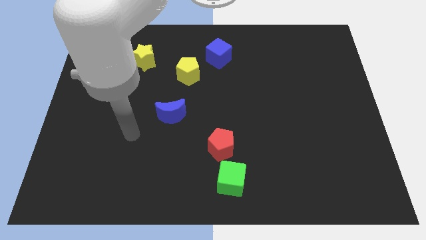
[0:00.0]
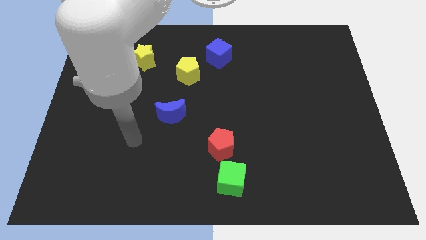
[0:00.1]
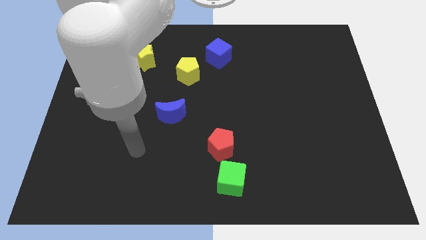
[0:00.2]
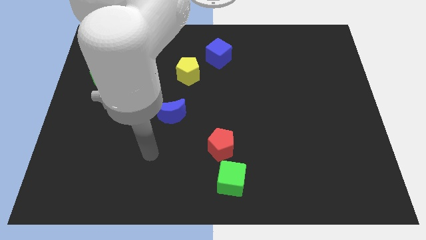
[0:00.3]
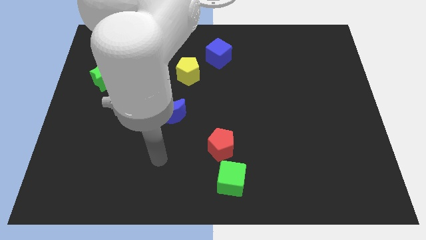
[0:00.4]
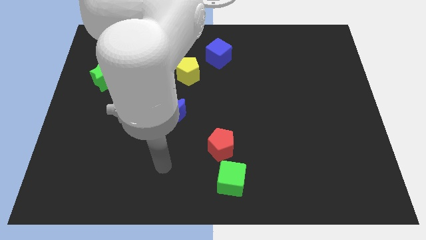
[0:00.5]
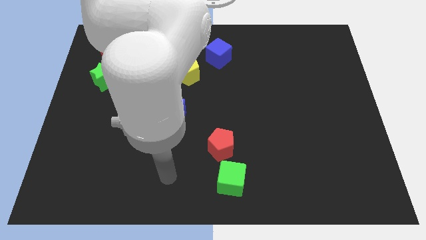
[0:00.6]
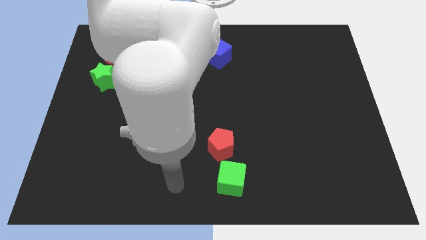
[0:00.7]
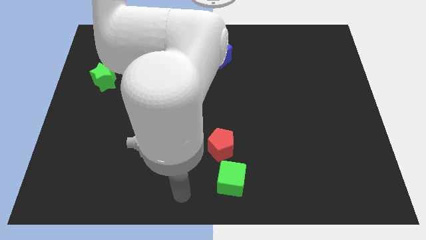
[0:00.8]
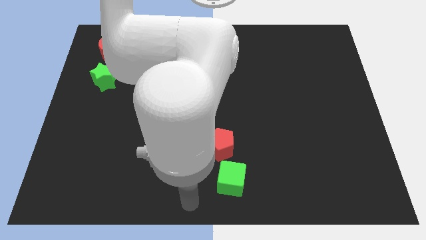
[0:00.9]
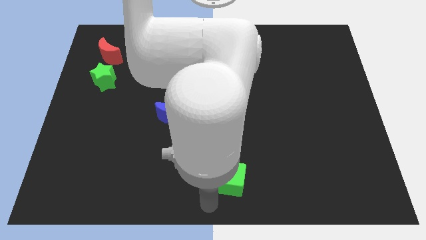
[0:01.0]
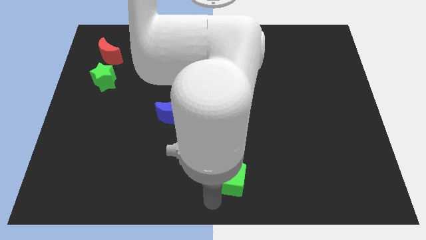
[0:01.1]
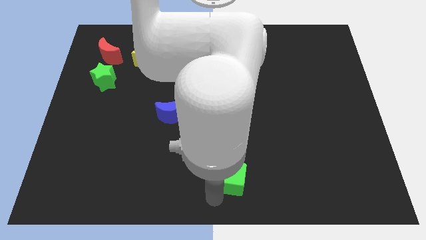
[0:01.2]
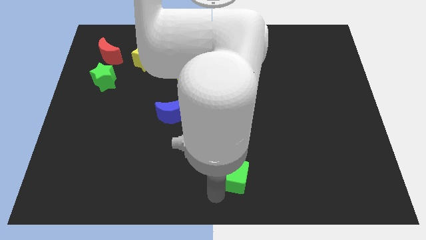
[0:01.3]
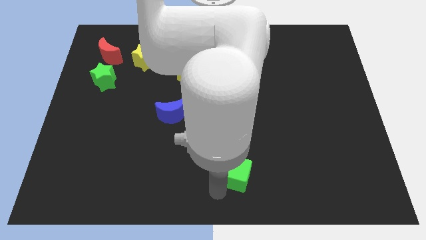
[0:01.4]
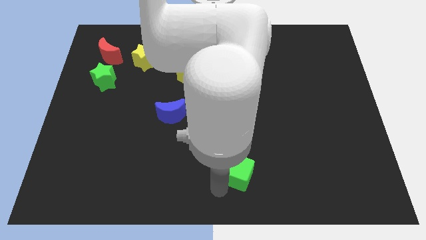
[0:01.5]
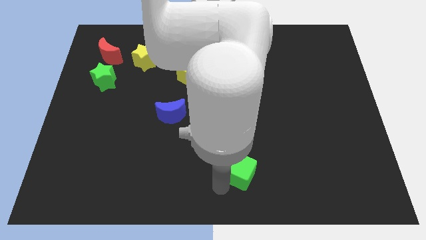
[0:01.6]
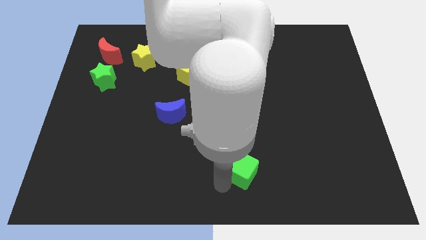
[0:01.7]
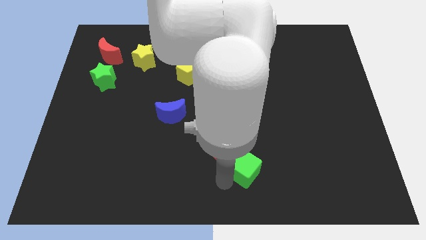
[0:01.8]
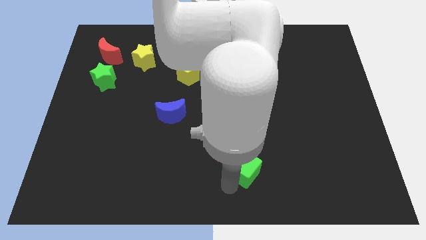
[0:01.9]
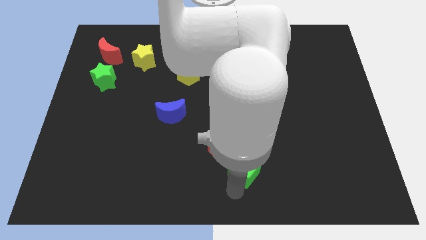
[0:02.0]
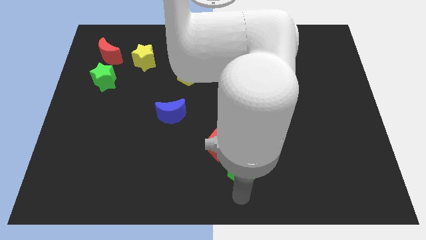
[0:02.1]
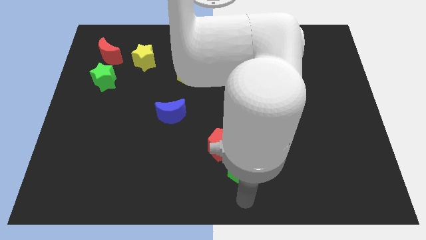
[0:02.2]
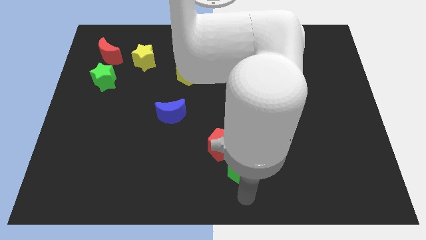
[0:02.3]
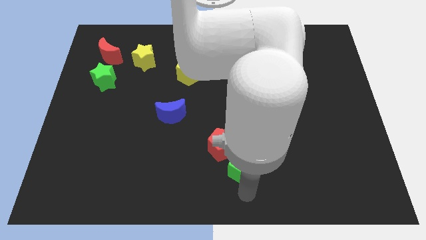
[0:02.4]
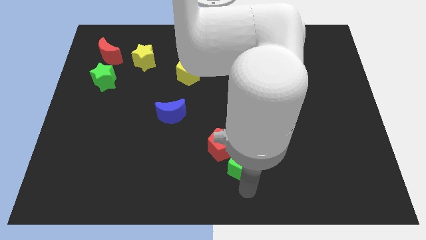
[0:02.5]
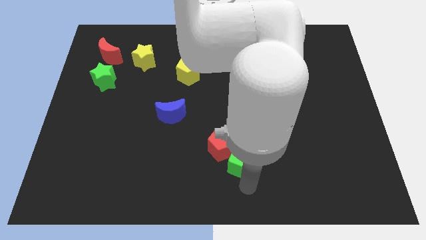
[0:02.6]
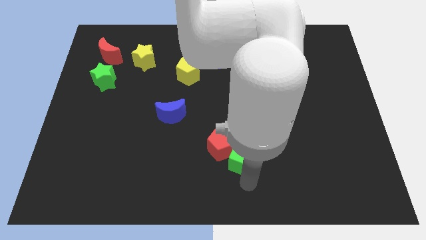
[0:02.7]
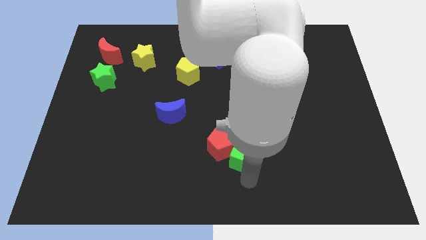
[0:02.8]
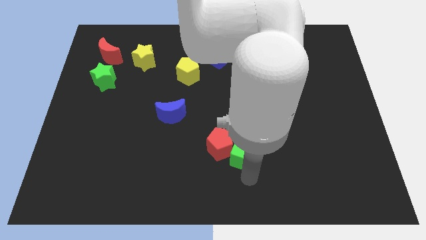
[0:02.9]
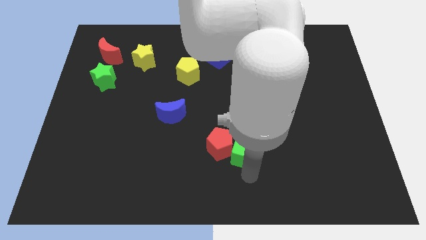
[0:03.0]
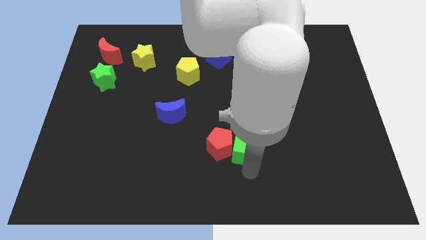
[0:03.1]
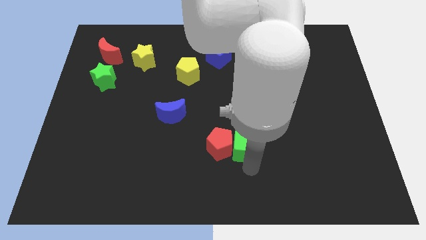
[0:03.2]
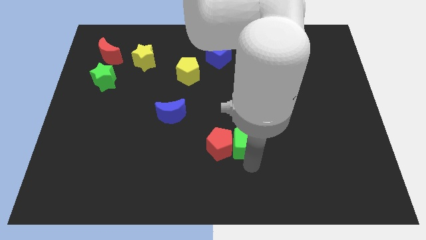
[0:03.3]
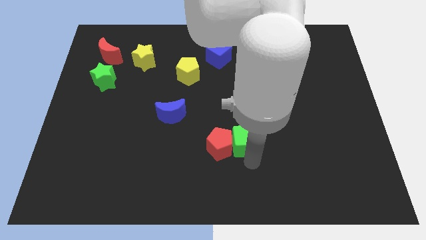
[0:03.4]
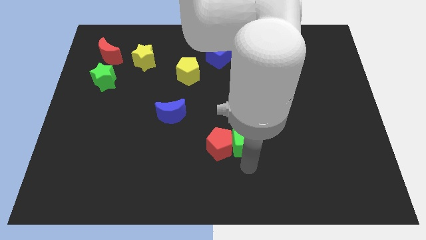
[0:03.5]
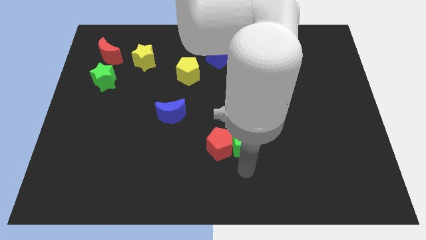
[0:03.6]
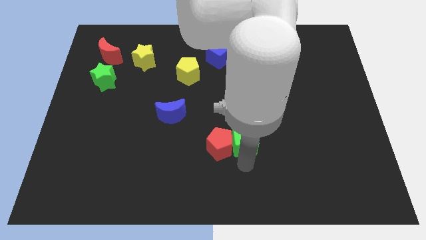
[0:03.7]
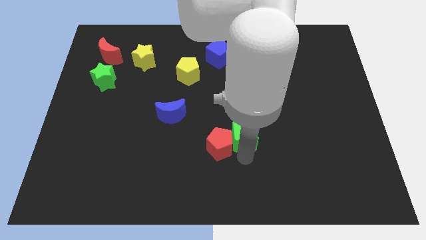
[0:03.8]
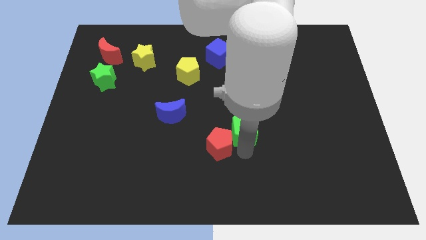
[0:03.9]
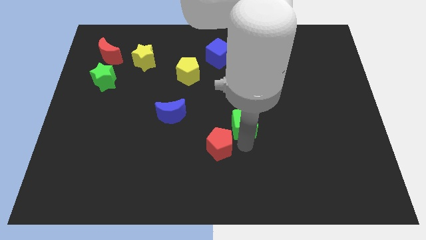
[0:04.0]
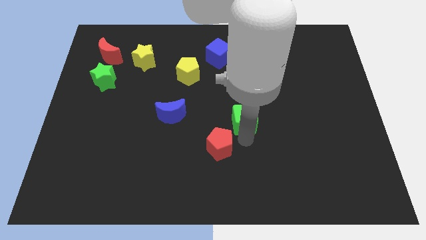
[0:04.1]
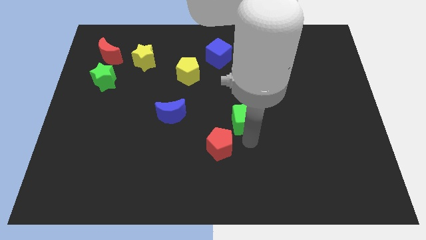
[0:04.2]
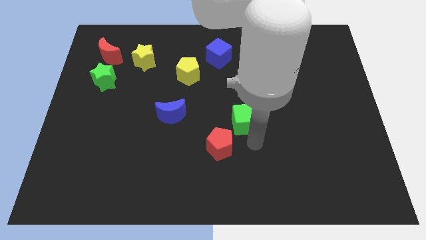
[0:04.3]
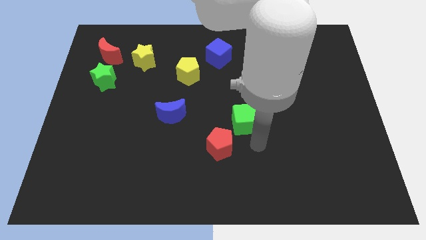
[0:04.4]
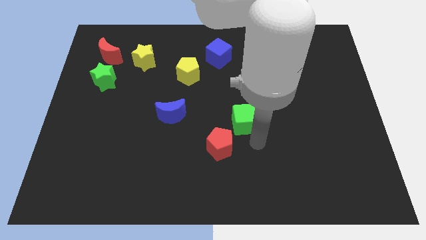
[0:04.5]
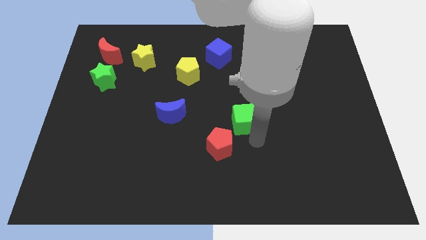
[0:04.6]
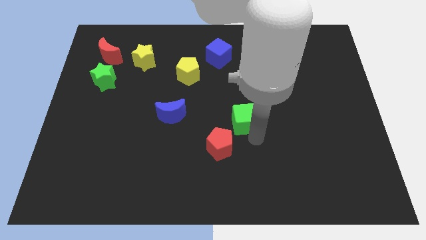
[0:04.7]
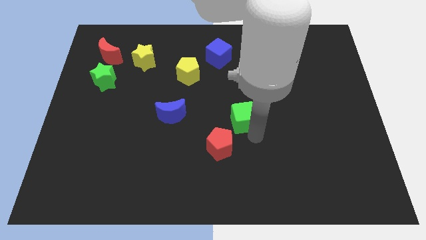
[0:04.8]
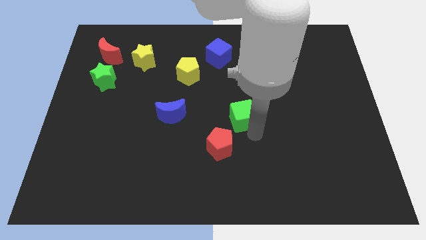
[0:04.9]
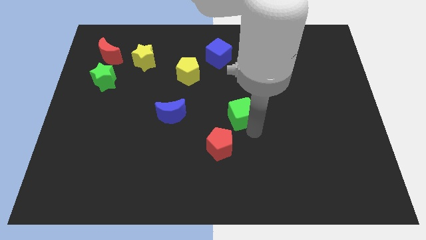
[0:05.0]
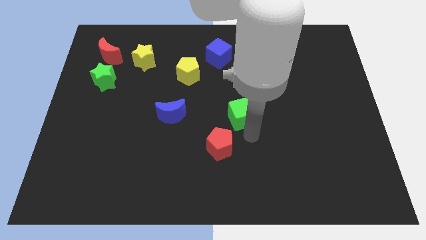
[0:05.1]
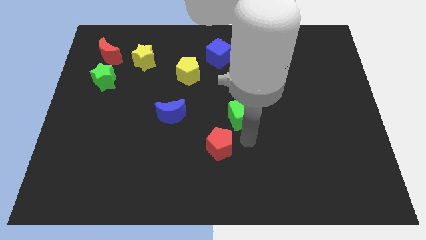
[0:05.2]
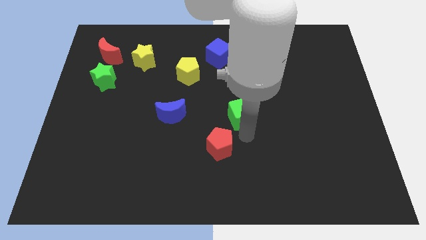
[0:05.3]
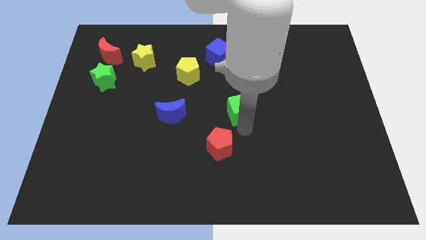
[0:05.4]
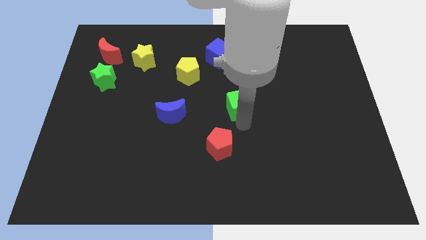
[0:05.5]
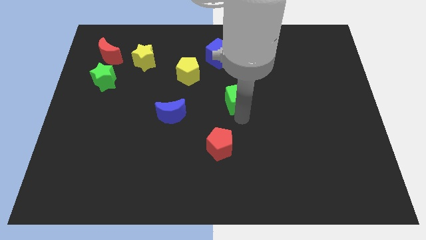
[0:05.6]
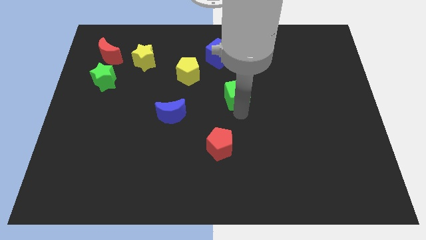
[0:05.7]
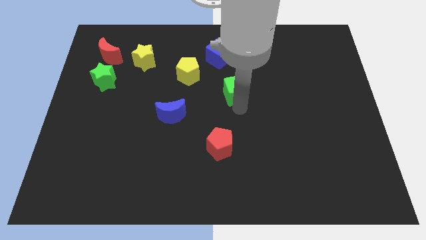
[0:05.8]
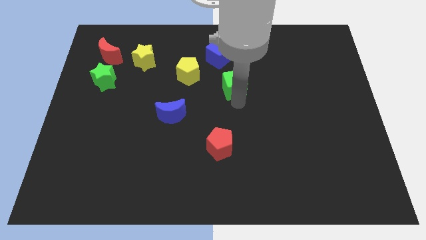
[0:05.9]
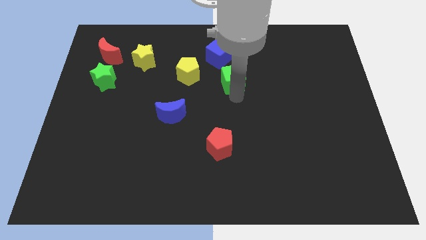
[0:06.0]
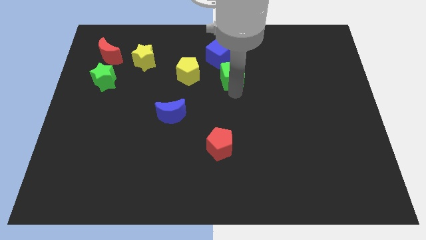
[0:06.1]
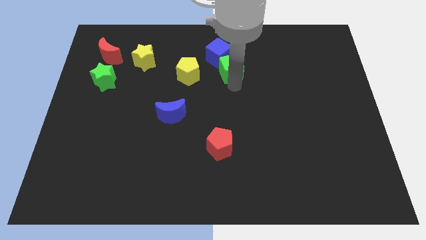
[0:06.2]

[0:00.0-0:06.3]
put the green cube next to the blue cube

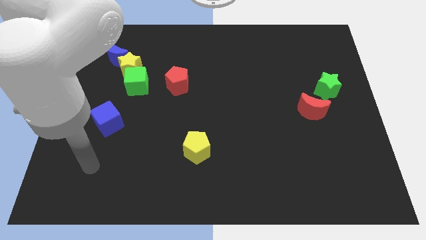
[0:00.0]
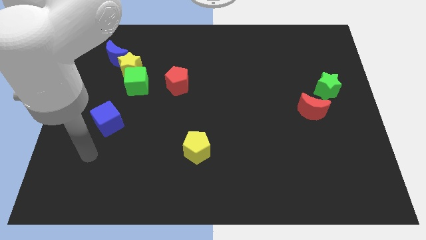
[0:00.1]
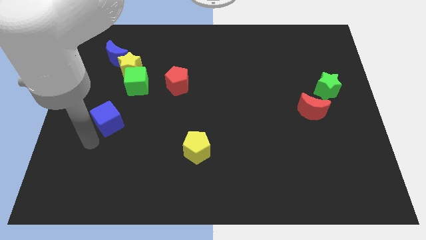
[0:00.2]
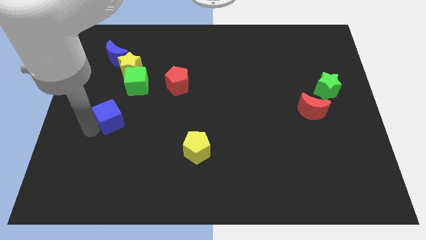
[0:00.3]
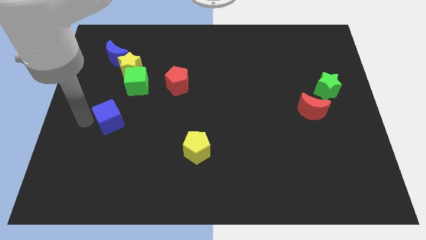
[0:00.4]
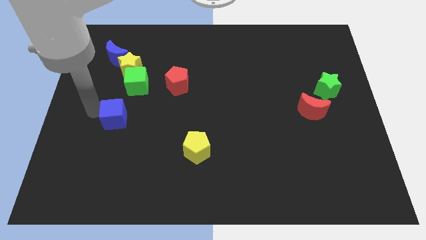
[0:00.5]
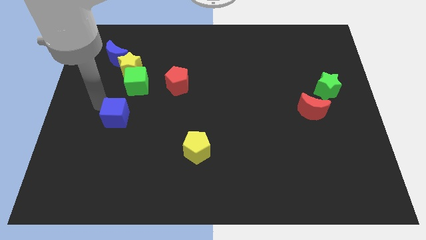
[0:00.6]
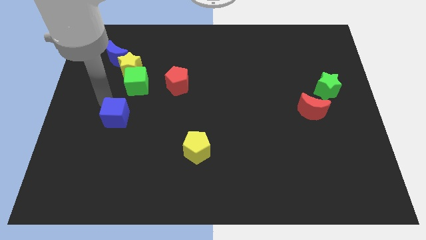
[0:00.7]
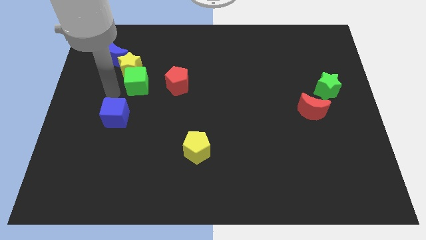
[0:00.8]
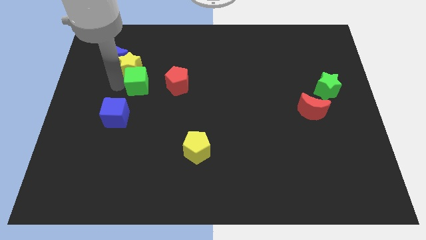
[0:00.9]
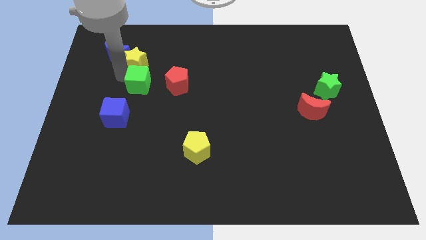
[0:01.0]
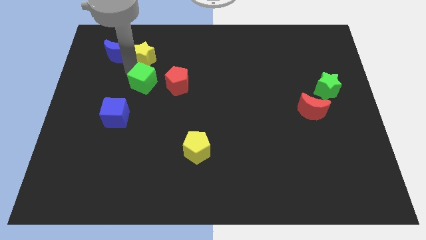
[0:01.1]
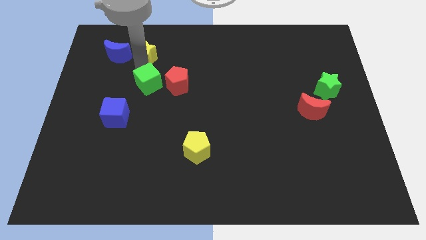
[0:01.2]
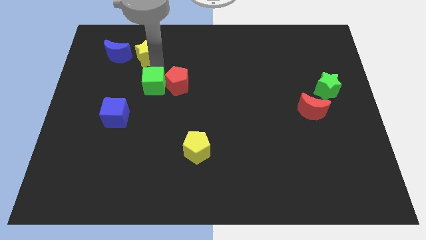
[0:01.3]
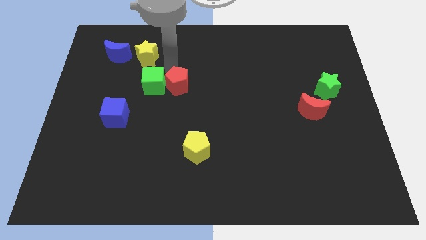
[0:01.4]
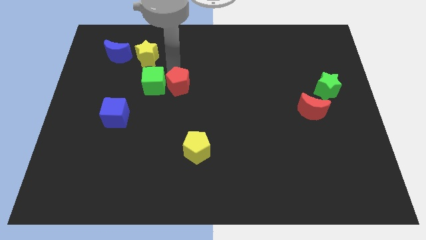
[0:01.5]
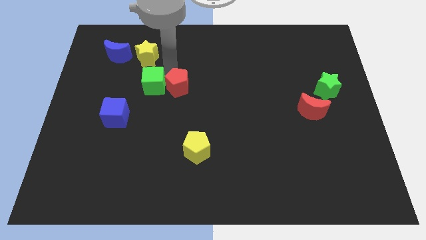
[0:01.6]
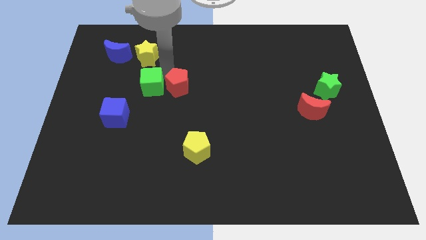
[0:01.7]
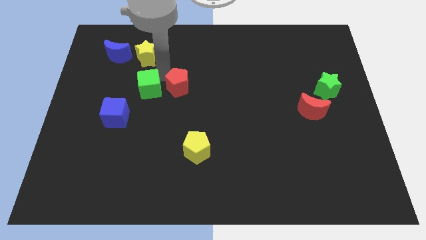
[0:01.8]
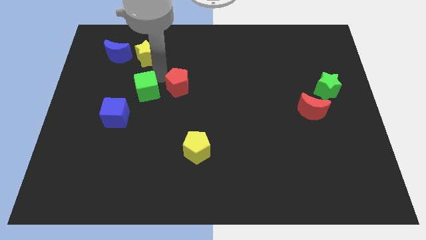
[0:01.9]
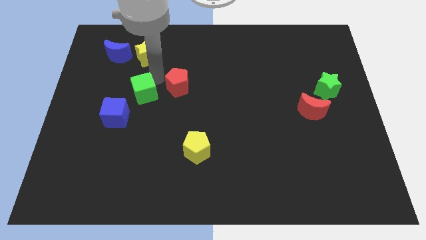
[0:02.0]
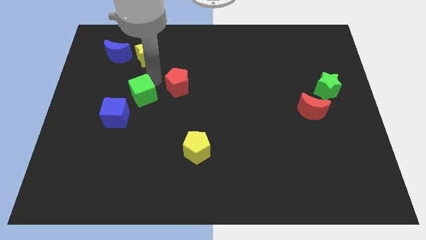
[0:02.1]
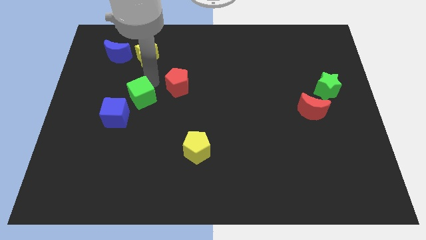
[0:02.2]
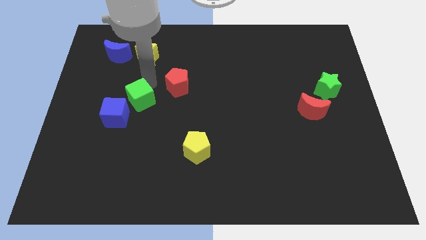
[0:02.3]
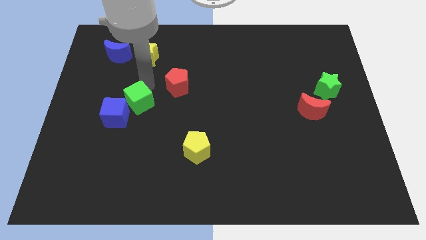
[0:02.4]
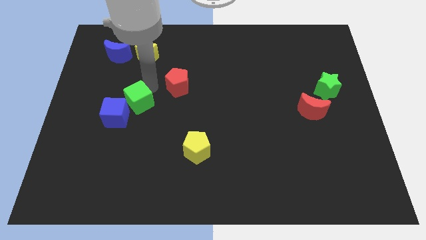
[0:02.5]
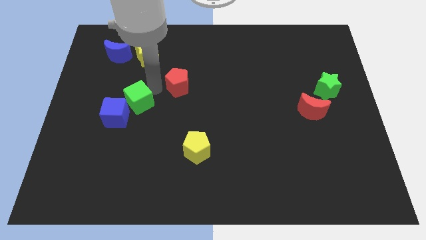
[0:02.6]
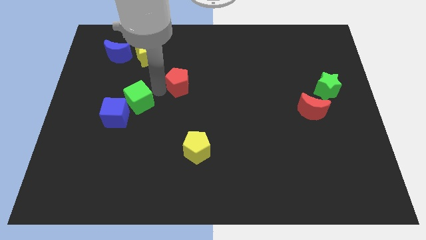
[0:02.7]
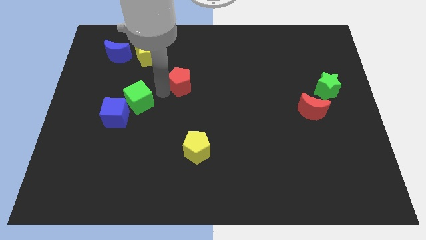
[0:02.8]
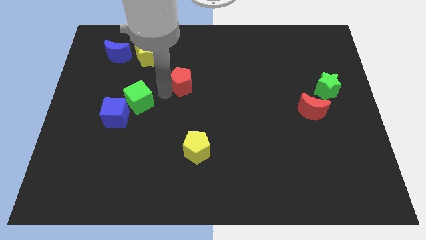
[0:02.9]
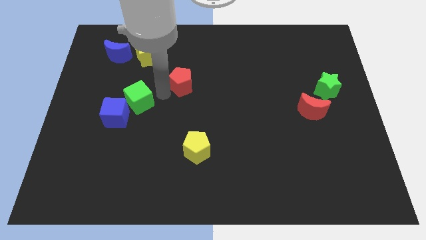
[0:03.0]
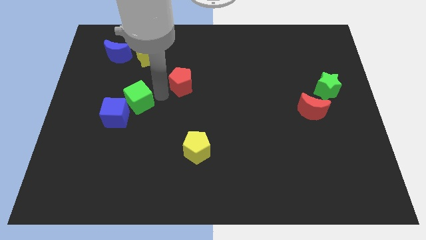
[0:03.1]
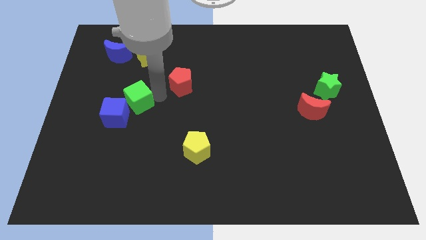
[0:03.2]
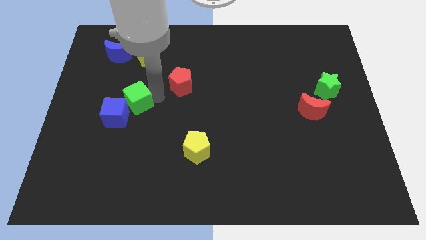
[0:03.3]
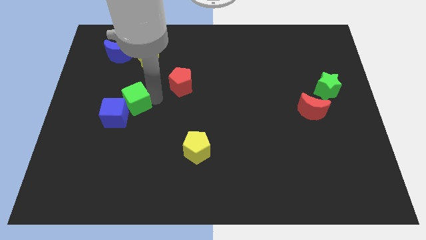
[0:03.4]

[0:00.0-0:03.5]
put the green cube to the blue cube
